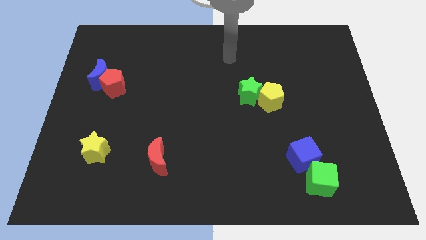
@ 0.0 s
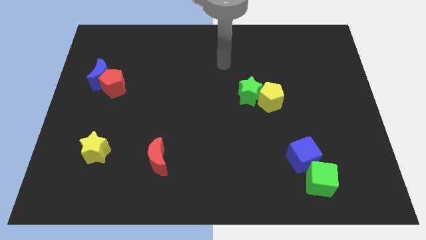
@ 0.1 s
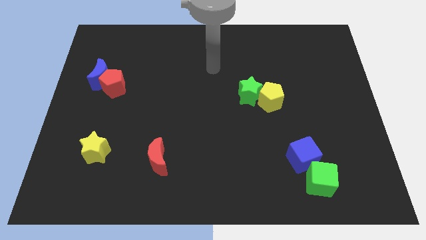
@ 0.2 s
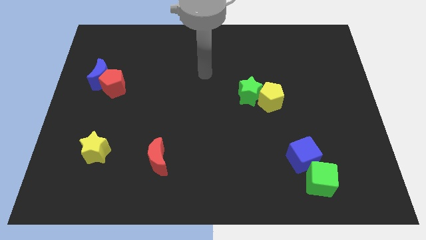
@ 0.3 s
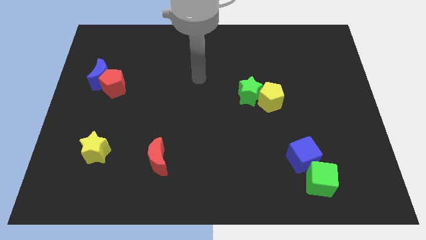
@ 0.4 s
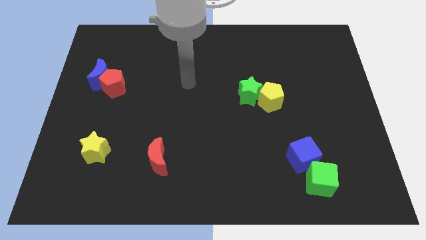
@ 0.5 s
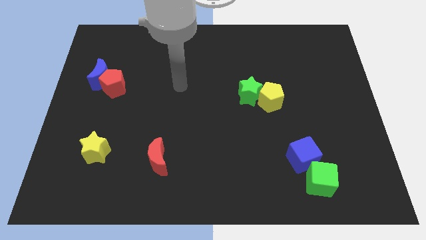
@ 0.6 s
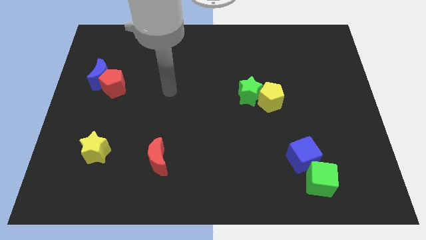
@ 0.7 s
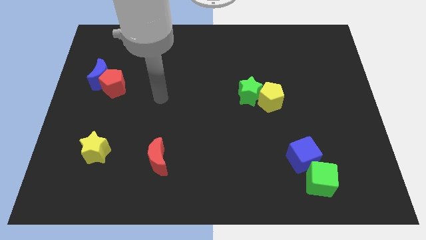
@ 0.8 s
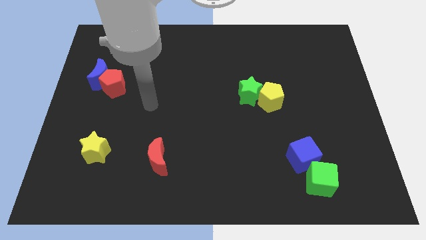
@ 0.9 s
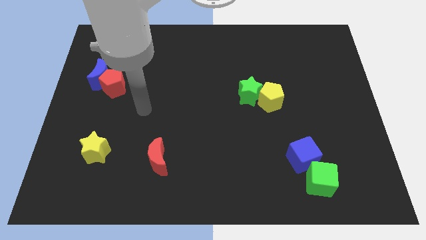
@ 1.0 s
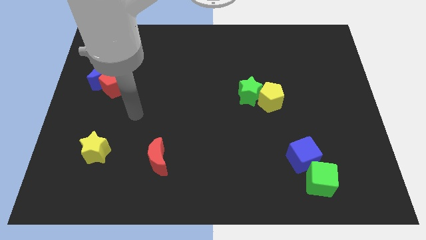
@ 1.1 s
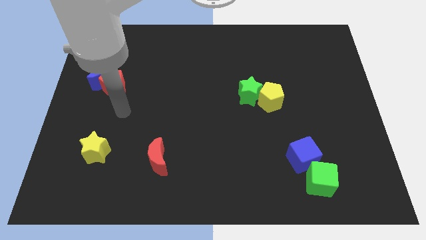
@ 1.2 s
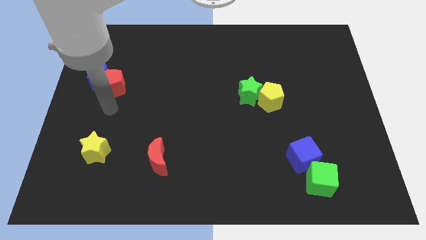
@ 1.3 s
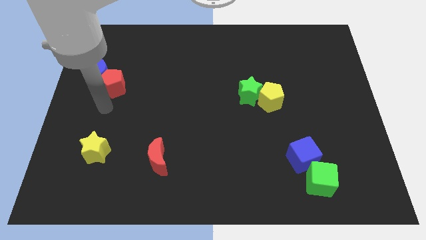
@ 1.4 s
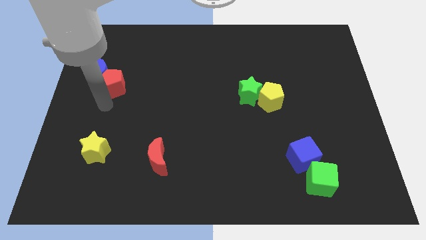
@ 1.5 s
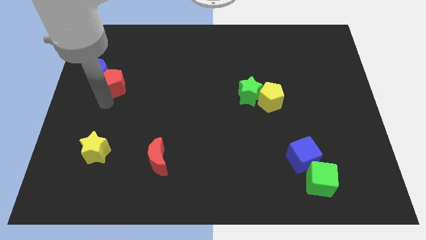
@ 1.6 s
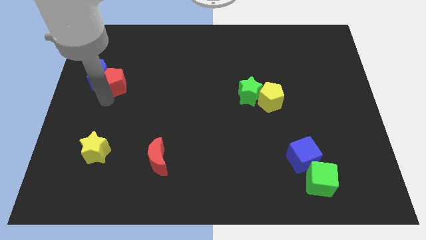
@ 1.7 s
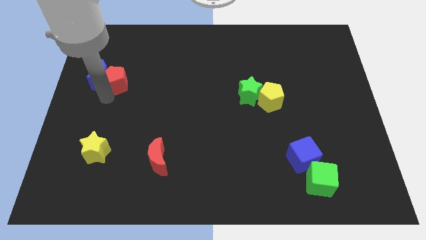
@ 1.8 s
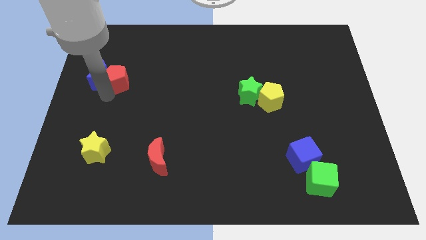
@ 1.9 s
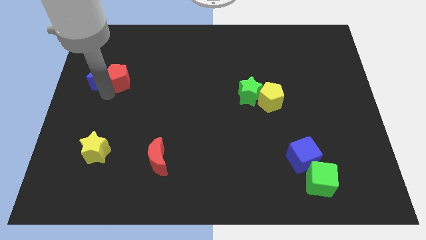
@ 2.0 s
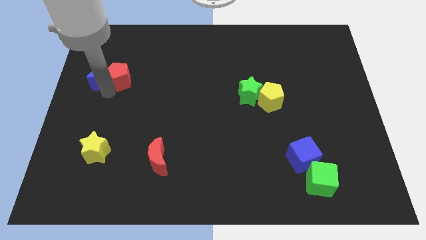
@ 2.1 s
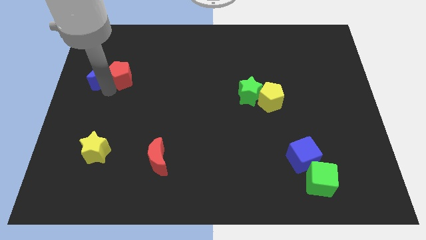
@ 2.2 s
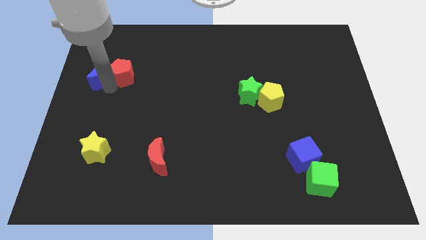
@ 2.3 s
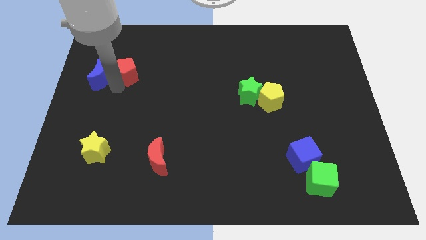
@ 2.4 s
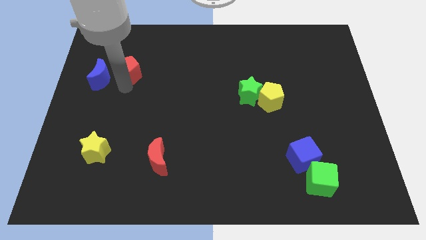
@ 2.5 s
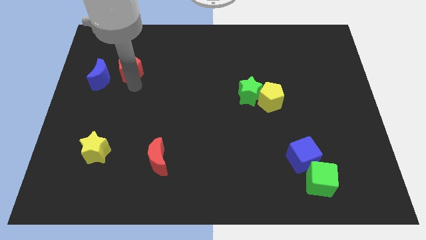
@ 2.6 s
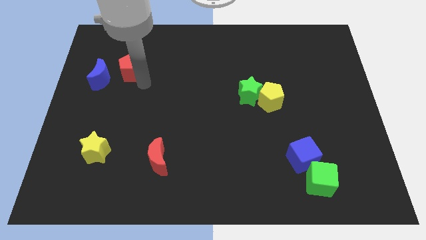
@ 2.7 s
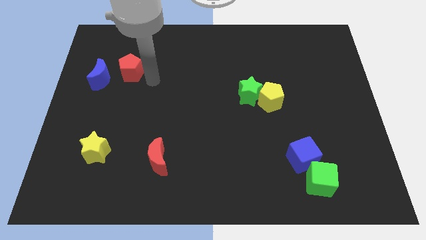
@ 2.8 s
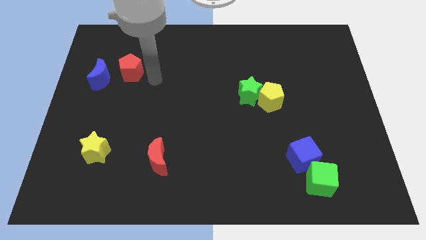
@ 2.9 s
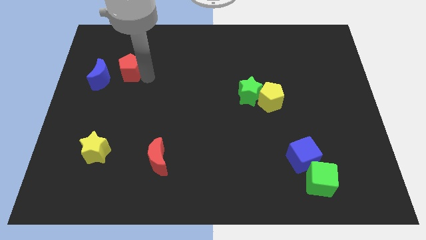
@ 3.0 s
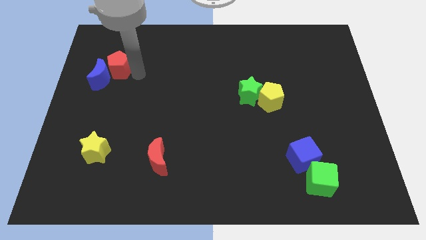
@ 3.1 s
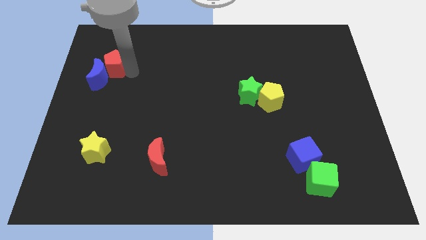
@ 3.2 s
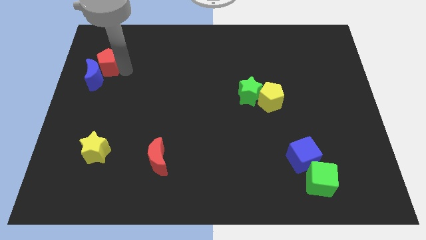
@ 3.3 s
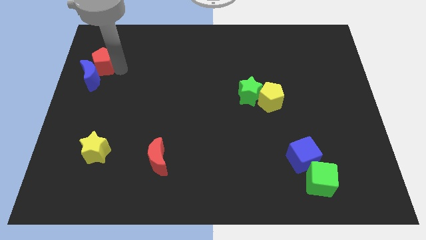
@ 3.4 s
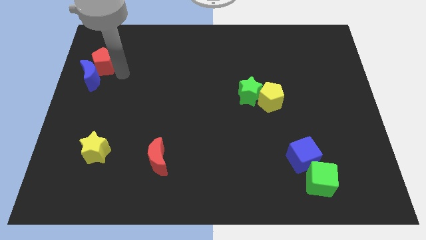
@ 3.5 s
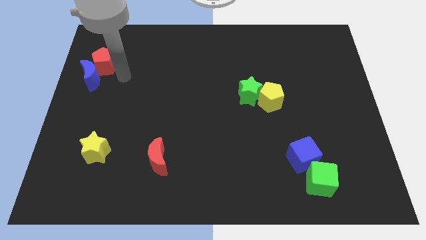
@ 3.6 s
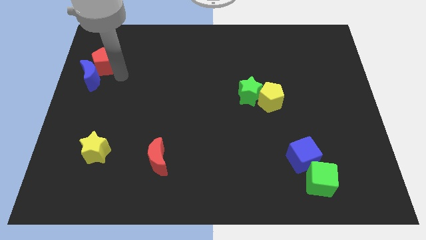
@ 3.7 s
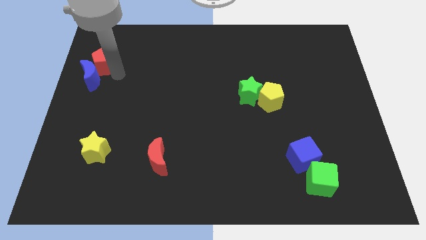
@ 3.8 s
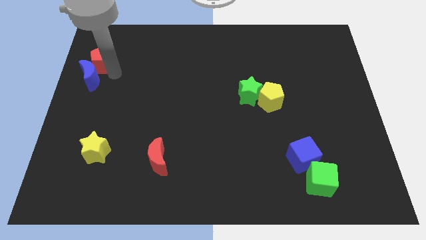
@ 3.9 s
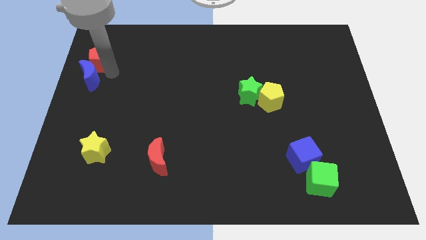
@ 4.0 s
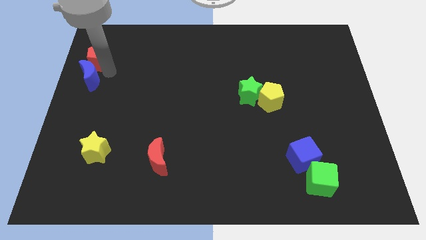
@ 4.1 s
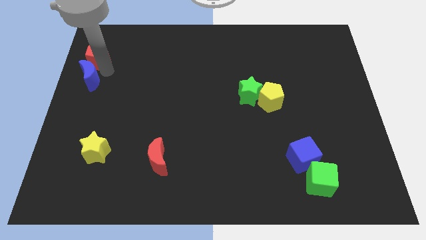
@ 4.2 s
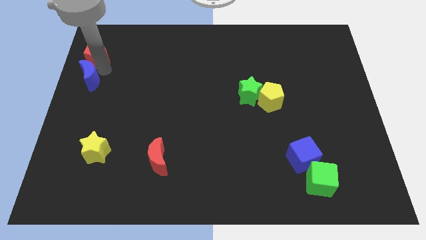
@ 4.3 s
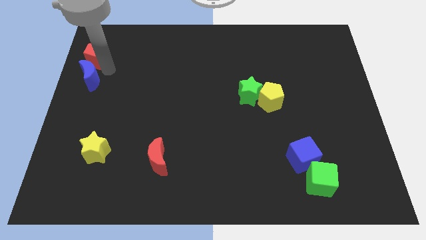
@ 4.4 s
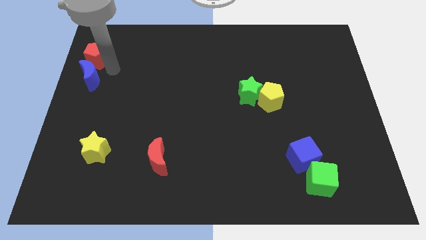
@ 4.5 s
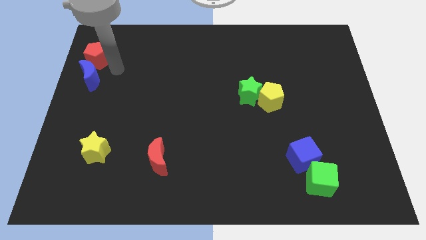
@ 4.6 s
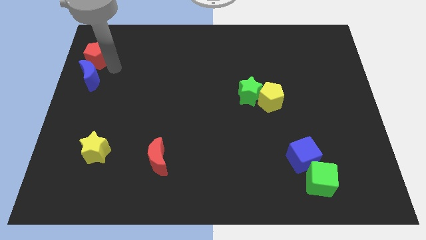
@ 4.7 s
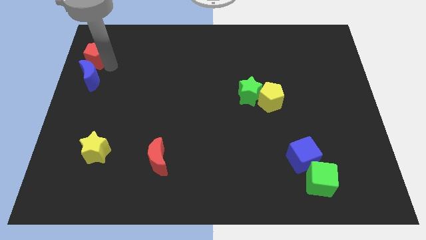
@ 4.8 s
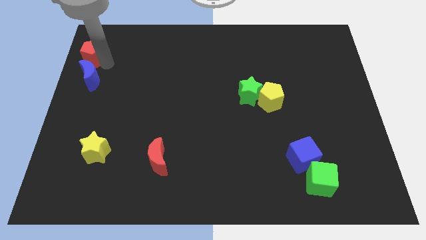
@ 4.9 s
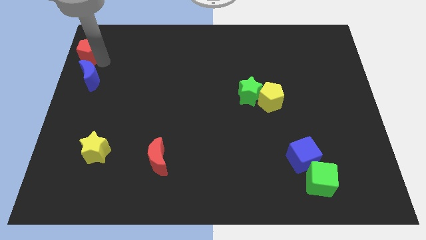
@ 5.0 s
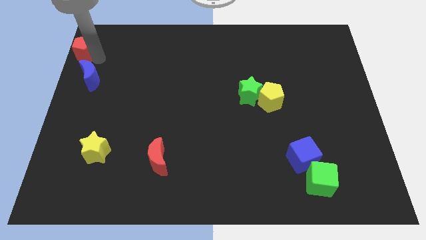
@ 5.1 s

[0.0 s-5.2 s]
put the red pentagon to the top left
